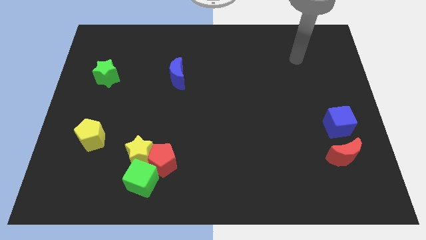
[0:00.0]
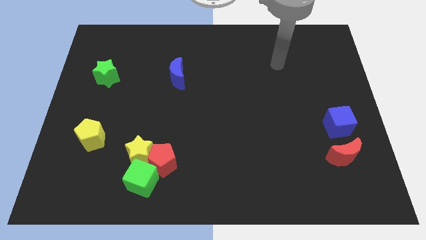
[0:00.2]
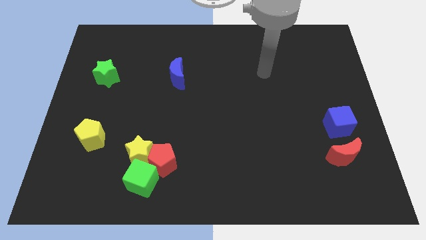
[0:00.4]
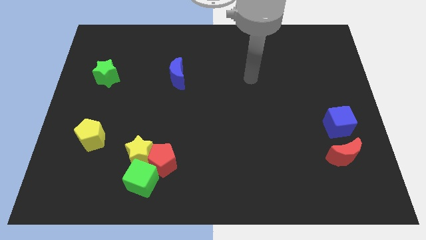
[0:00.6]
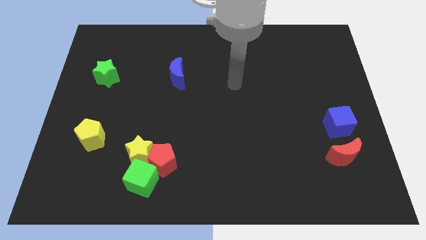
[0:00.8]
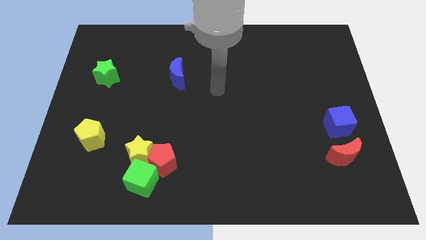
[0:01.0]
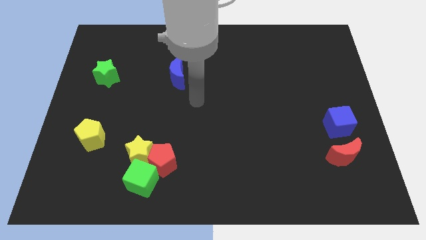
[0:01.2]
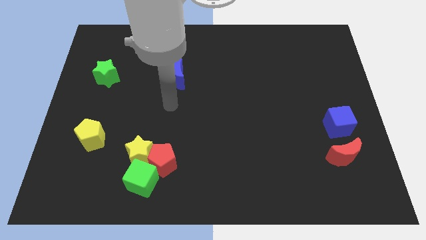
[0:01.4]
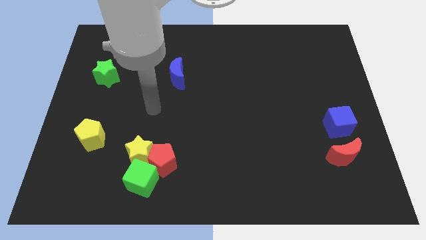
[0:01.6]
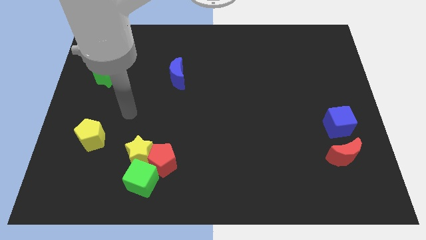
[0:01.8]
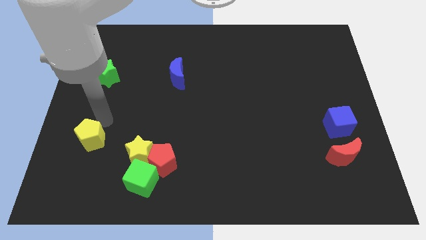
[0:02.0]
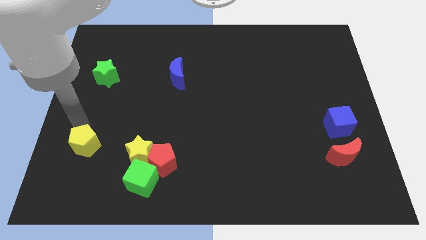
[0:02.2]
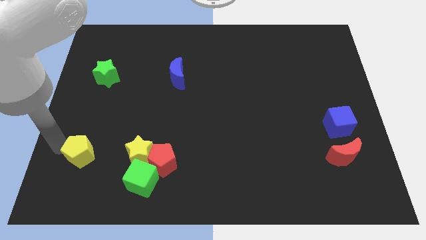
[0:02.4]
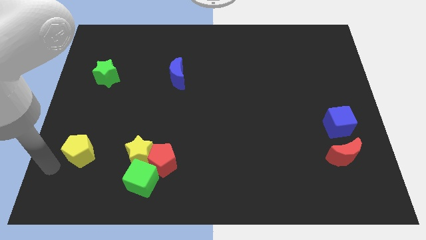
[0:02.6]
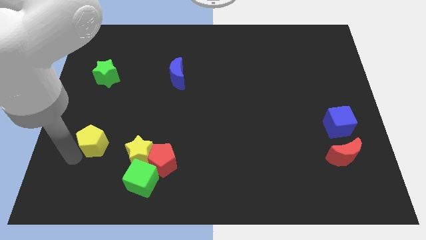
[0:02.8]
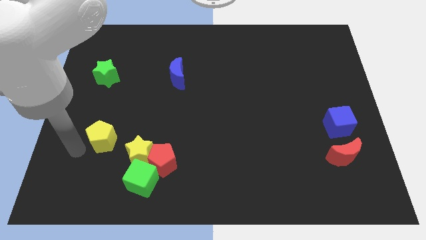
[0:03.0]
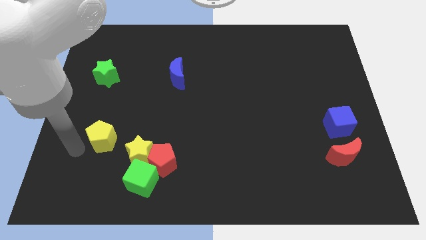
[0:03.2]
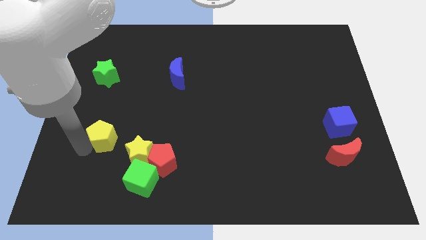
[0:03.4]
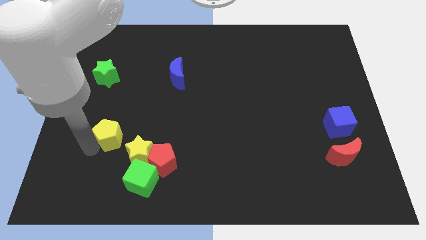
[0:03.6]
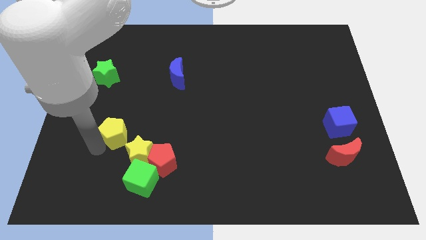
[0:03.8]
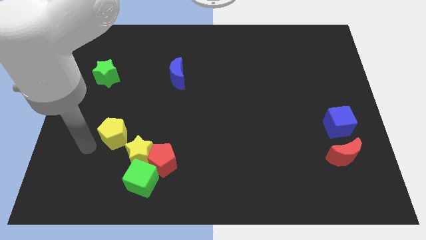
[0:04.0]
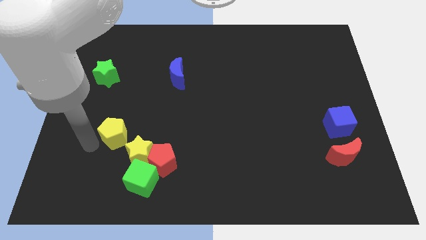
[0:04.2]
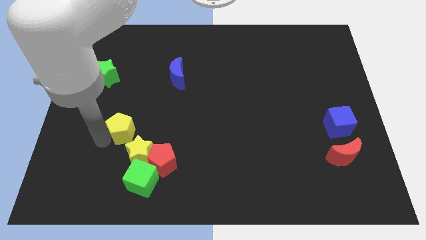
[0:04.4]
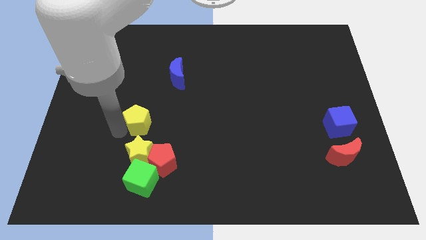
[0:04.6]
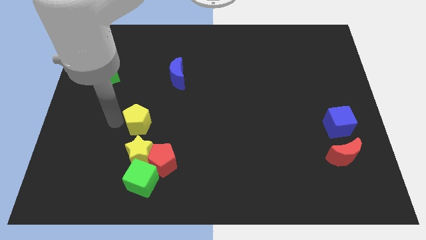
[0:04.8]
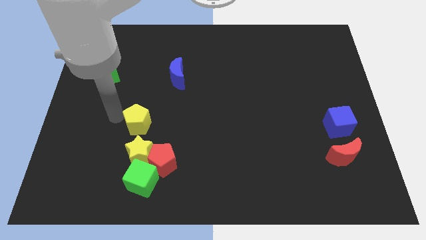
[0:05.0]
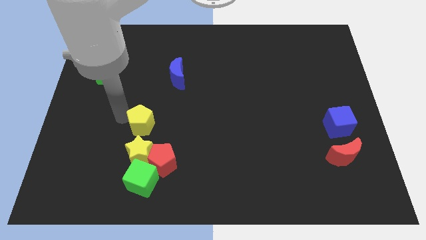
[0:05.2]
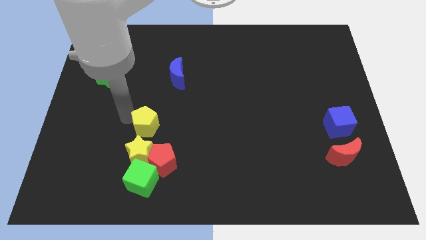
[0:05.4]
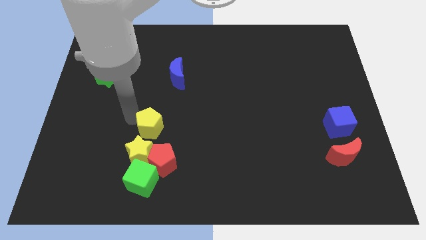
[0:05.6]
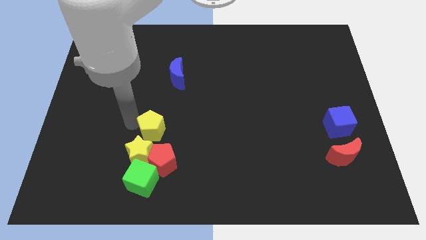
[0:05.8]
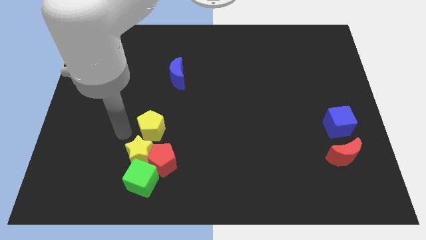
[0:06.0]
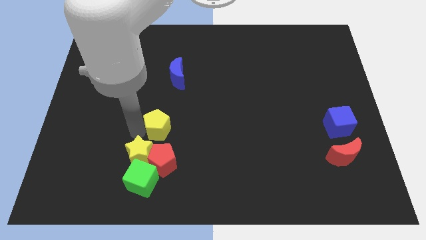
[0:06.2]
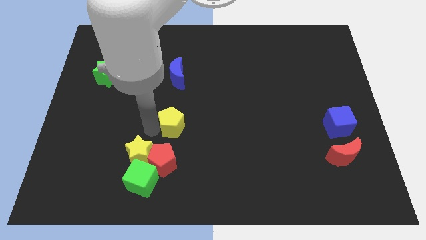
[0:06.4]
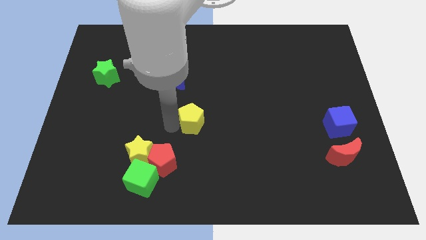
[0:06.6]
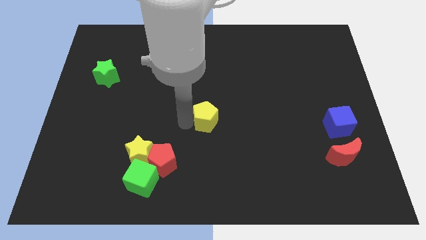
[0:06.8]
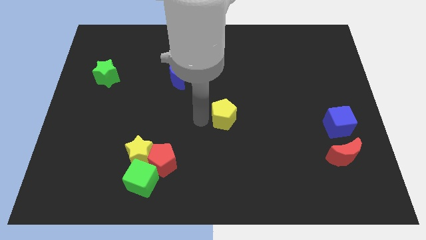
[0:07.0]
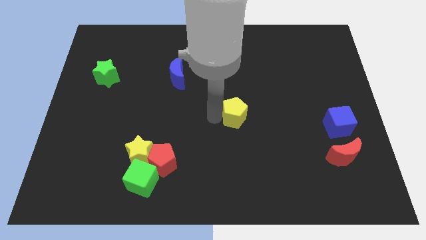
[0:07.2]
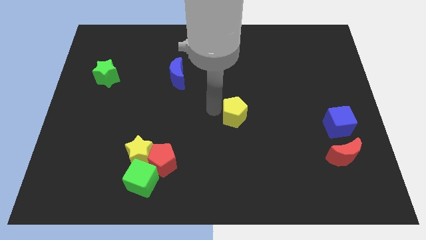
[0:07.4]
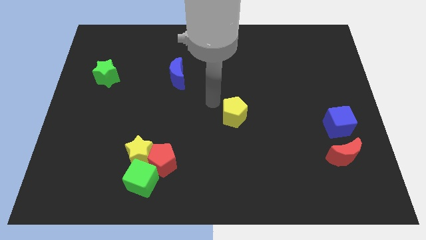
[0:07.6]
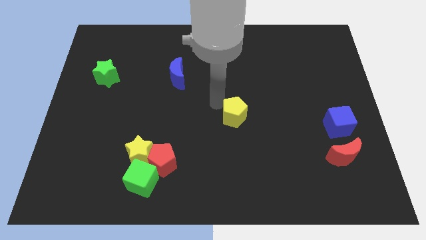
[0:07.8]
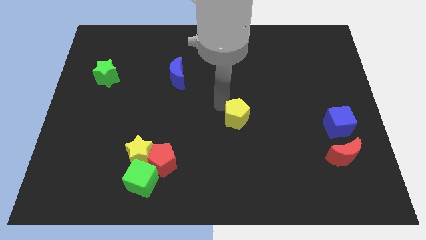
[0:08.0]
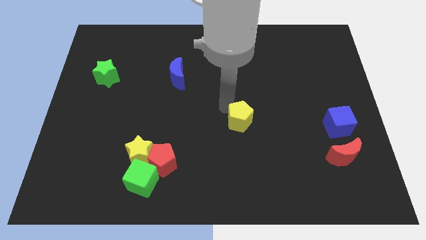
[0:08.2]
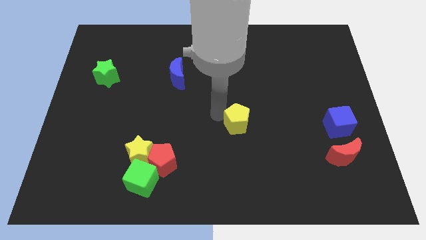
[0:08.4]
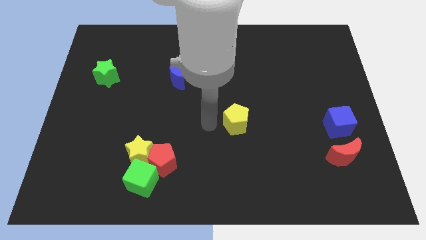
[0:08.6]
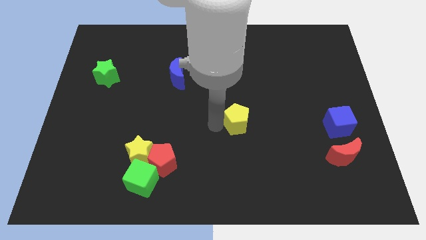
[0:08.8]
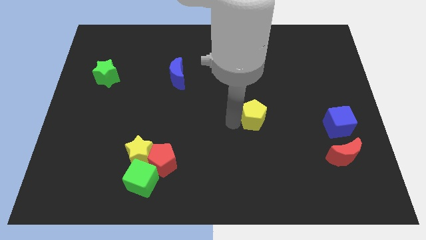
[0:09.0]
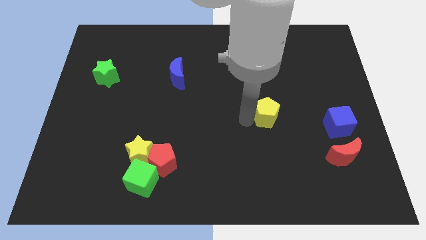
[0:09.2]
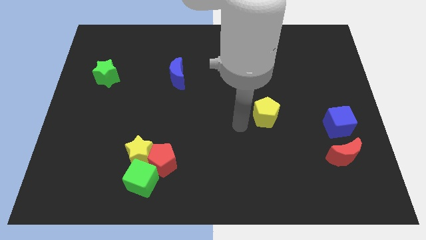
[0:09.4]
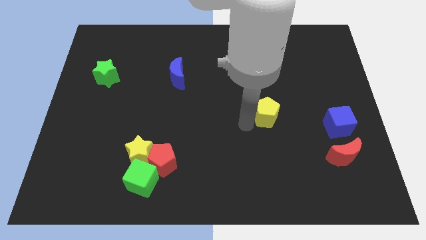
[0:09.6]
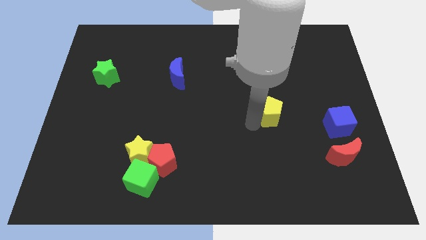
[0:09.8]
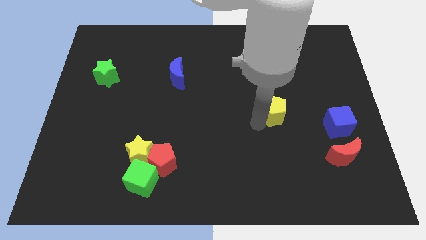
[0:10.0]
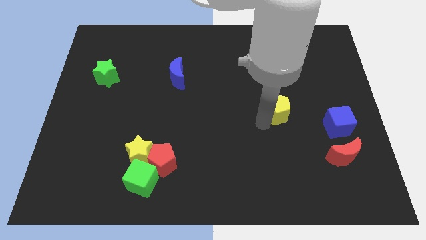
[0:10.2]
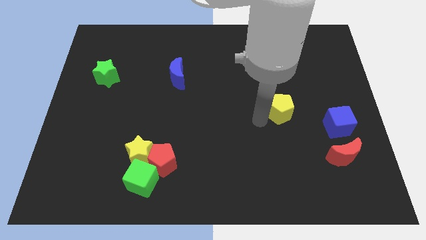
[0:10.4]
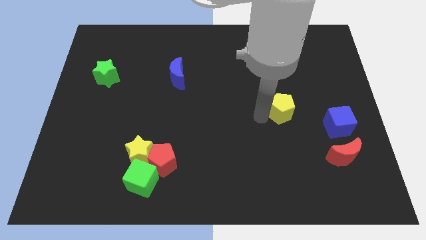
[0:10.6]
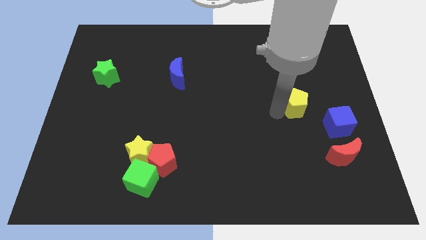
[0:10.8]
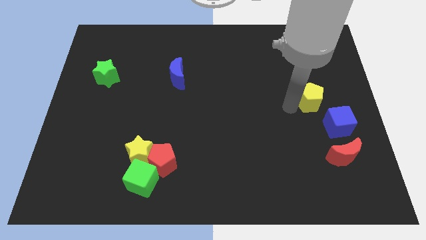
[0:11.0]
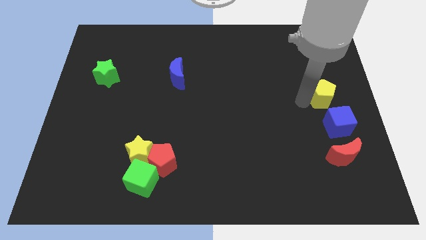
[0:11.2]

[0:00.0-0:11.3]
put the yellow pentagon to the center right

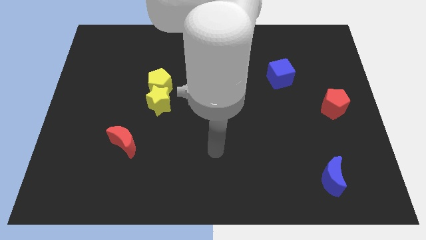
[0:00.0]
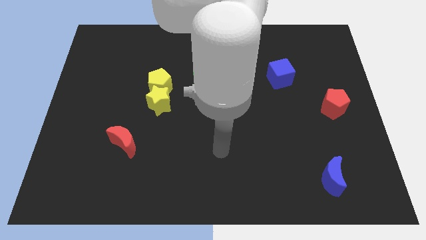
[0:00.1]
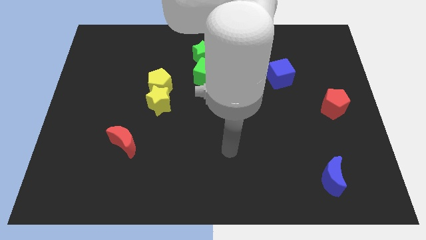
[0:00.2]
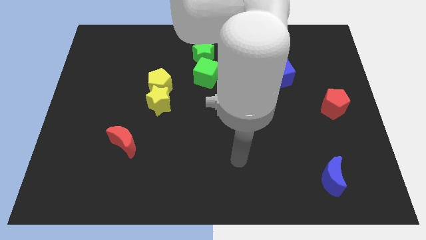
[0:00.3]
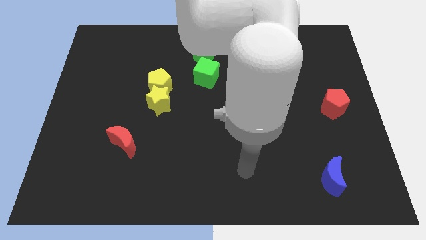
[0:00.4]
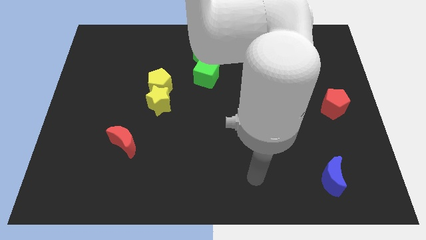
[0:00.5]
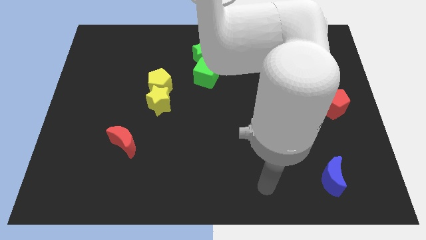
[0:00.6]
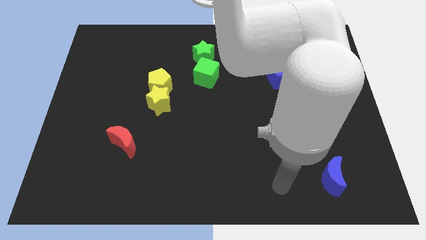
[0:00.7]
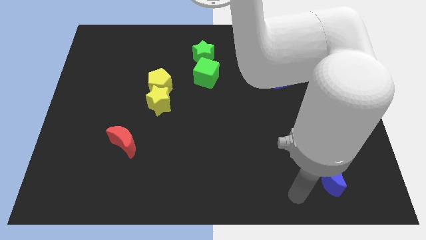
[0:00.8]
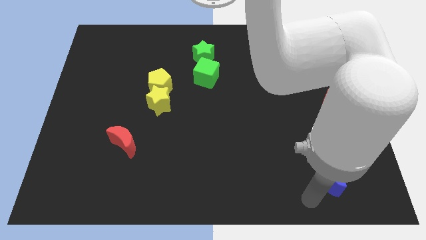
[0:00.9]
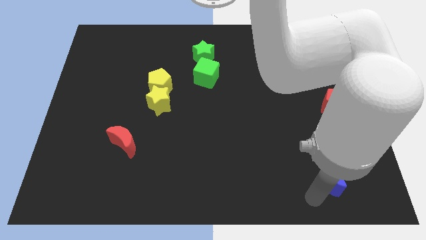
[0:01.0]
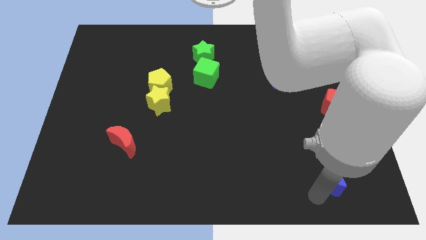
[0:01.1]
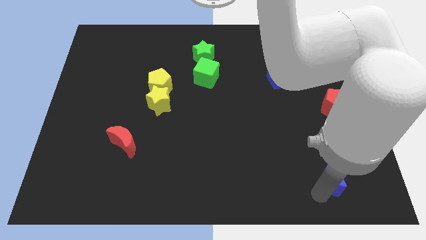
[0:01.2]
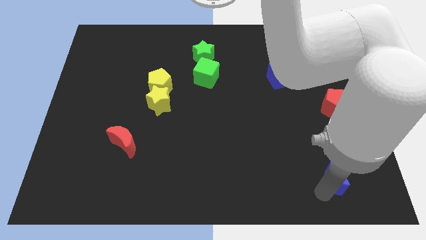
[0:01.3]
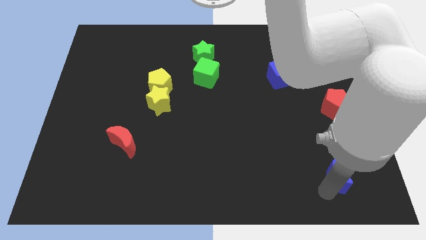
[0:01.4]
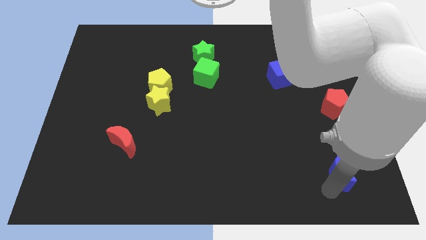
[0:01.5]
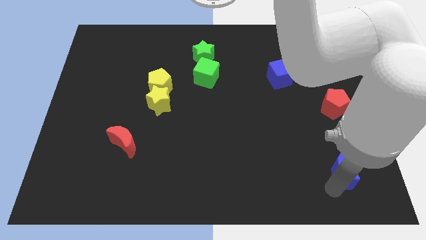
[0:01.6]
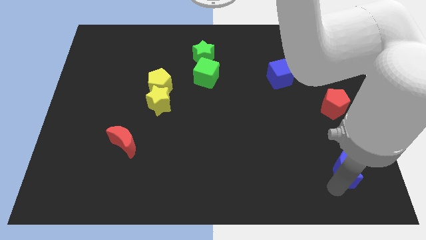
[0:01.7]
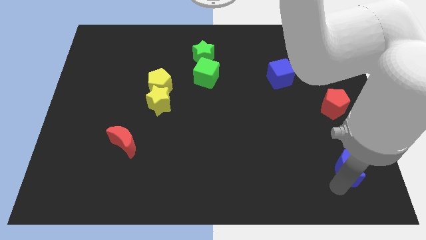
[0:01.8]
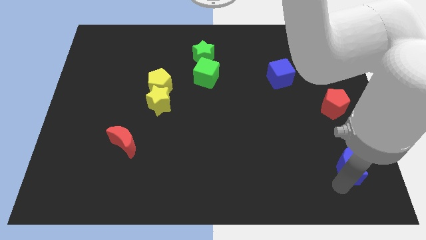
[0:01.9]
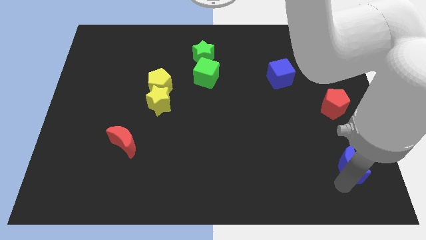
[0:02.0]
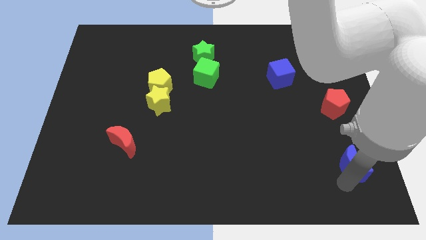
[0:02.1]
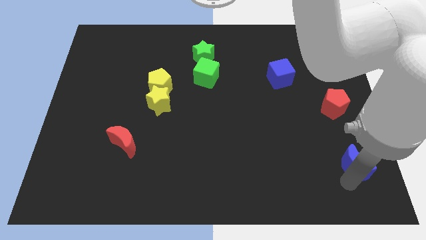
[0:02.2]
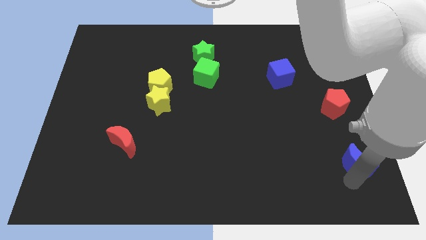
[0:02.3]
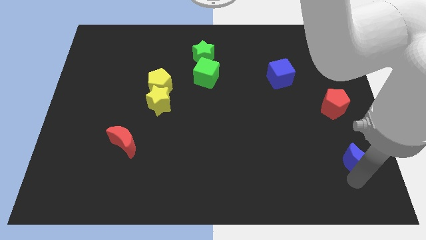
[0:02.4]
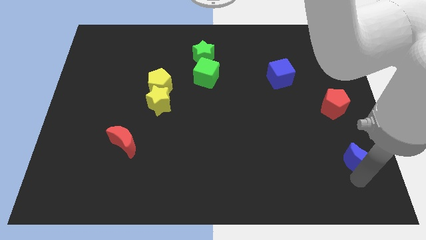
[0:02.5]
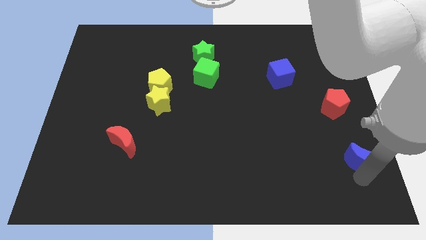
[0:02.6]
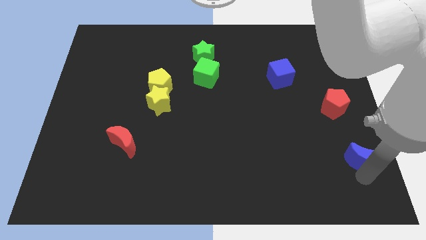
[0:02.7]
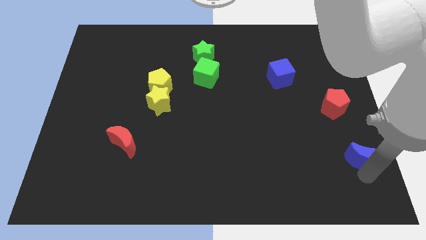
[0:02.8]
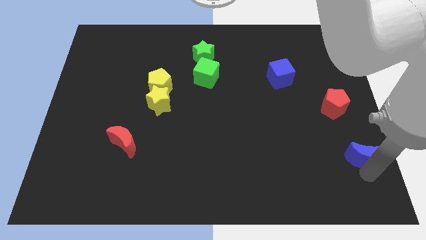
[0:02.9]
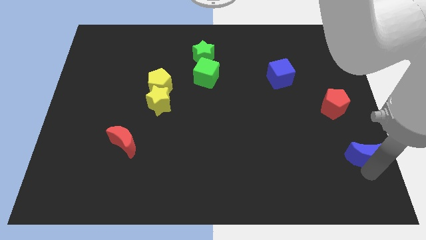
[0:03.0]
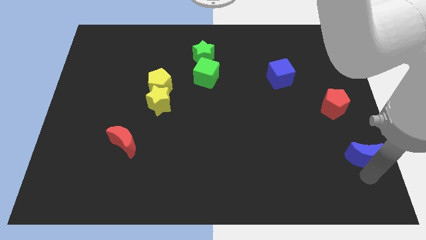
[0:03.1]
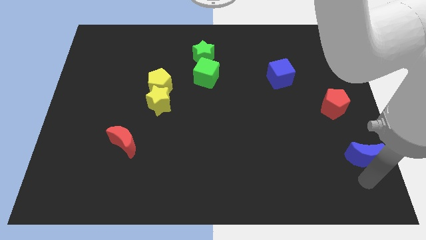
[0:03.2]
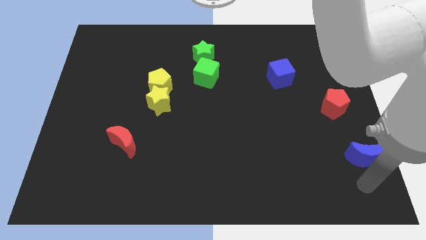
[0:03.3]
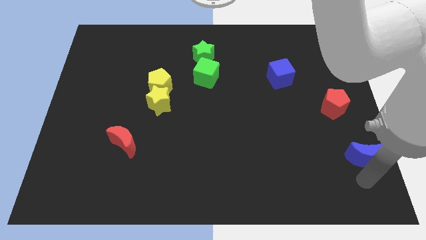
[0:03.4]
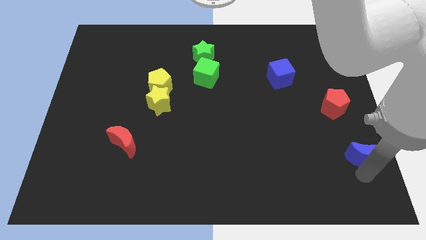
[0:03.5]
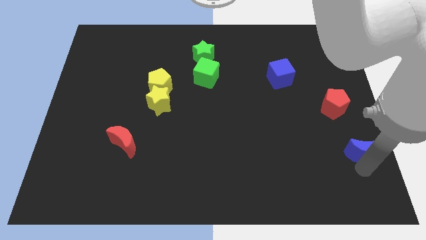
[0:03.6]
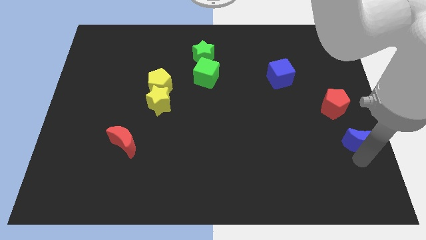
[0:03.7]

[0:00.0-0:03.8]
slide the blue moon to the right side
